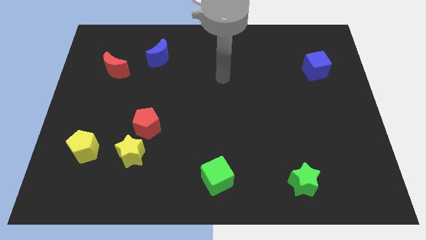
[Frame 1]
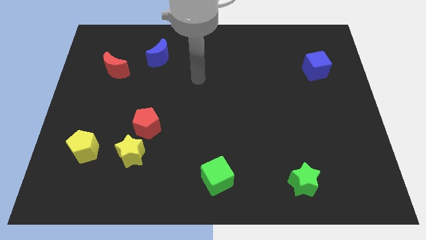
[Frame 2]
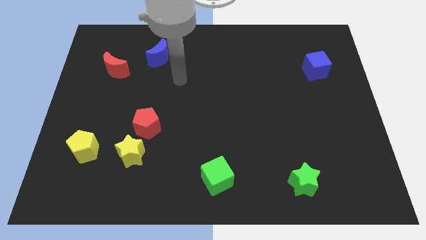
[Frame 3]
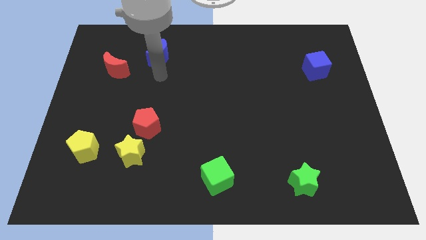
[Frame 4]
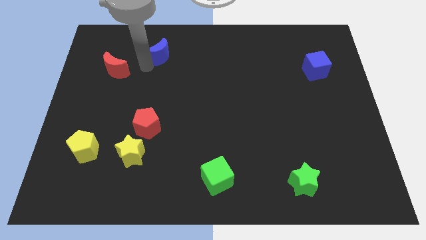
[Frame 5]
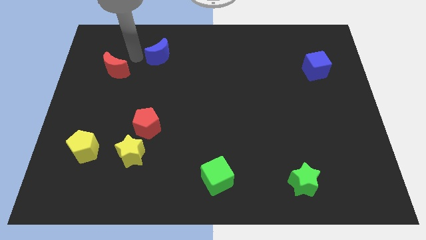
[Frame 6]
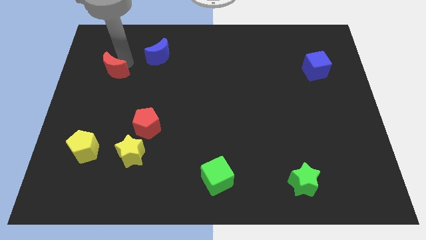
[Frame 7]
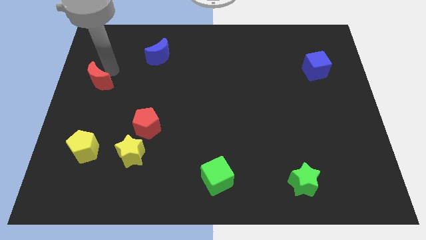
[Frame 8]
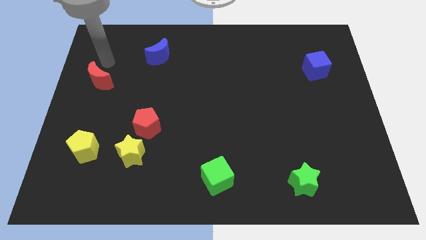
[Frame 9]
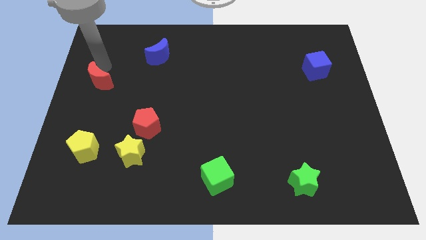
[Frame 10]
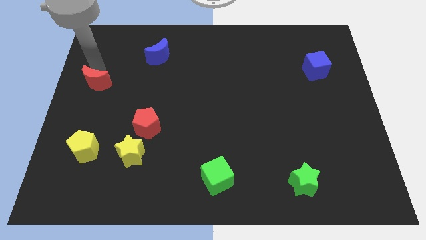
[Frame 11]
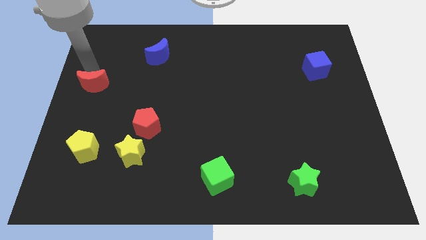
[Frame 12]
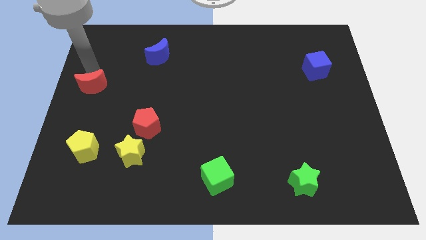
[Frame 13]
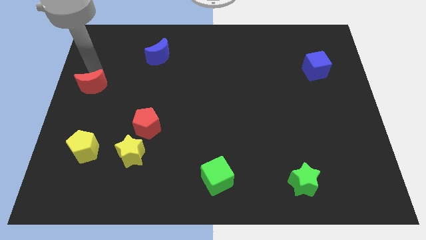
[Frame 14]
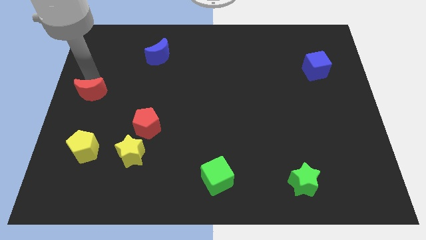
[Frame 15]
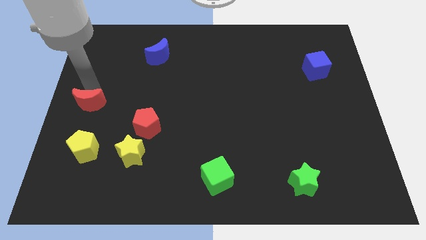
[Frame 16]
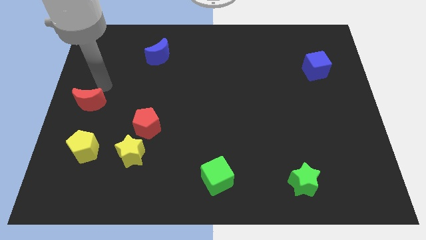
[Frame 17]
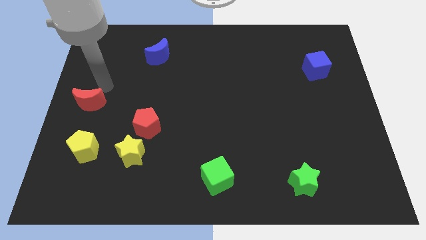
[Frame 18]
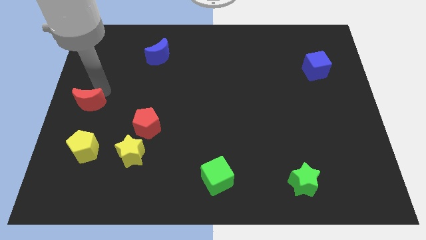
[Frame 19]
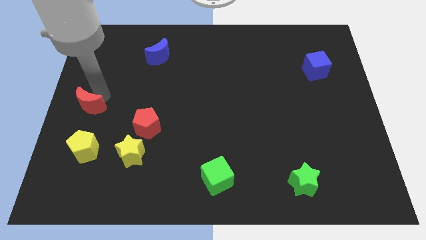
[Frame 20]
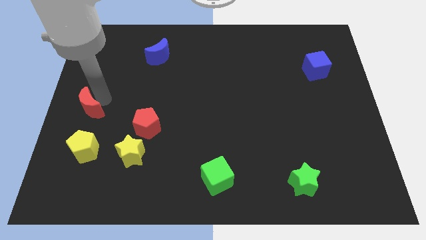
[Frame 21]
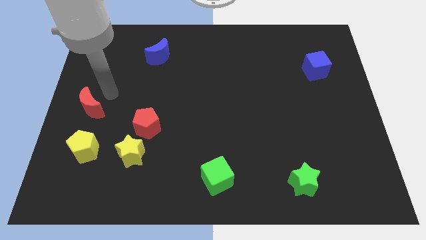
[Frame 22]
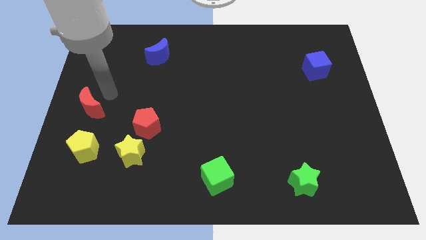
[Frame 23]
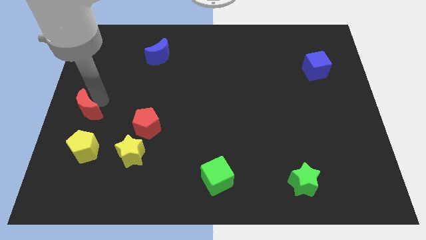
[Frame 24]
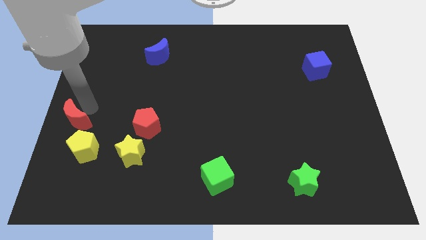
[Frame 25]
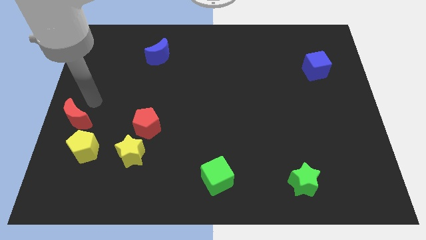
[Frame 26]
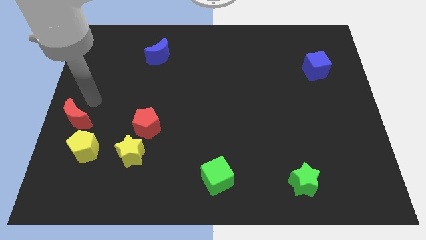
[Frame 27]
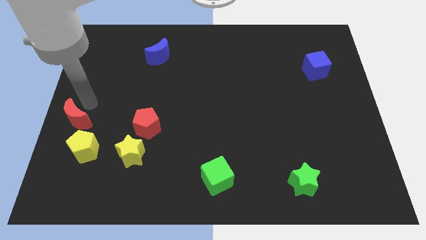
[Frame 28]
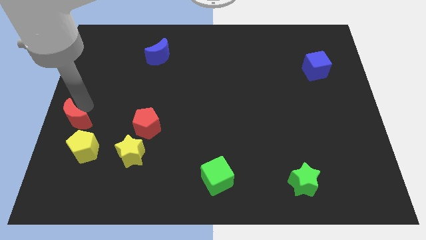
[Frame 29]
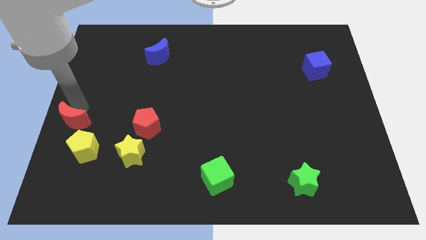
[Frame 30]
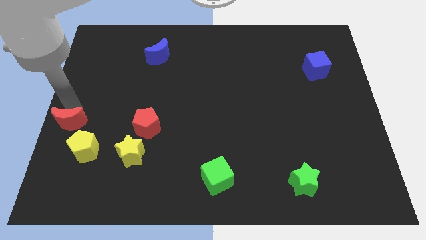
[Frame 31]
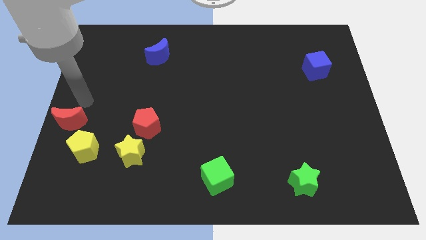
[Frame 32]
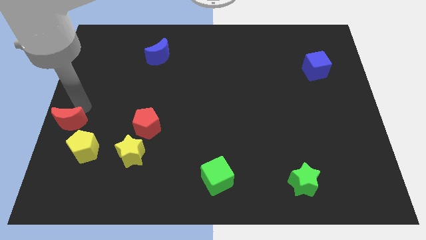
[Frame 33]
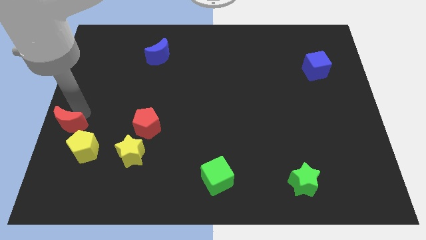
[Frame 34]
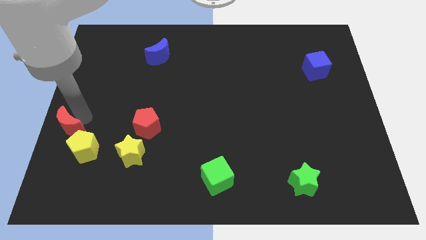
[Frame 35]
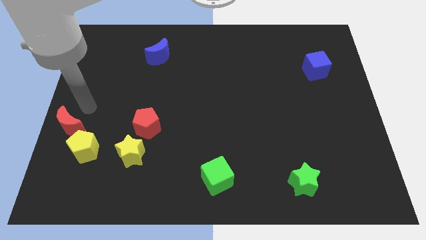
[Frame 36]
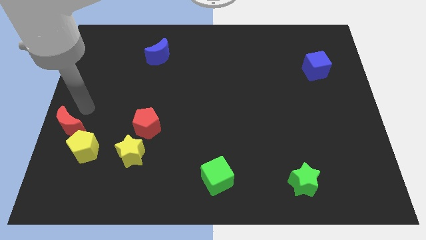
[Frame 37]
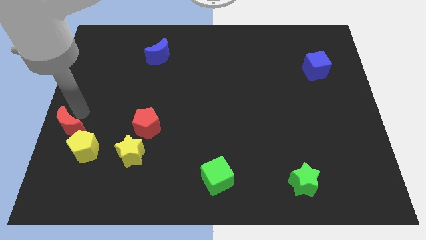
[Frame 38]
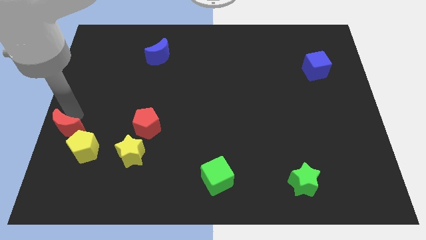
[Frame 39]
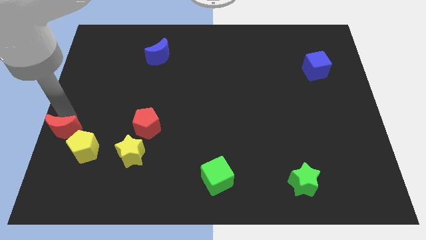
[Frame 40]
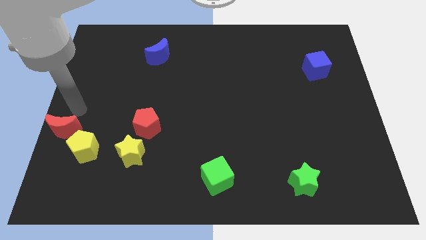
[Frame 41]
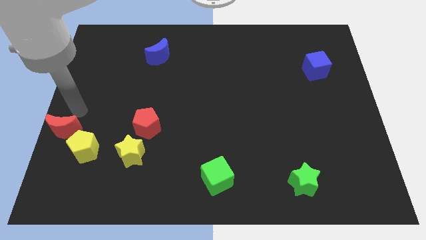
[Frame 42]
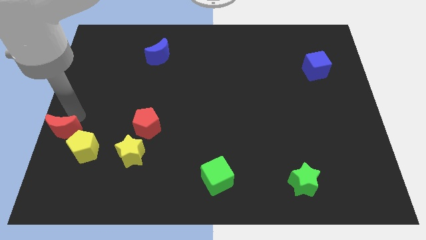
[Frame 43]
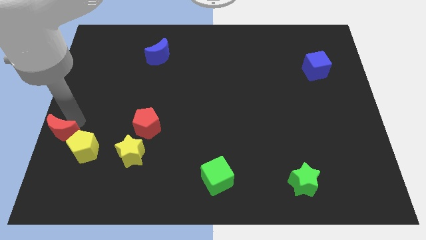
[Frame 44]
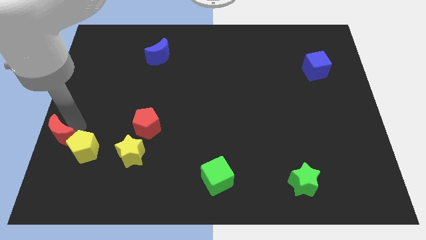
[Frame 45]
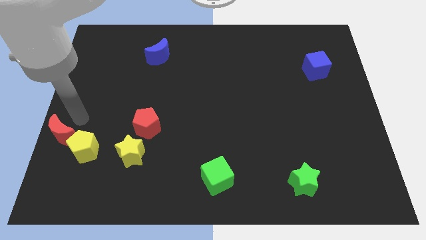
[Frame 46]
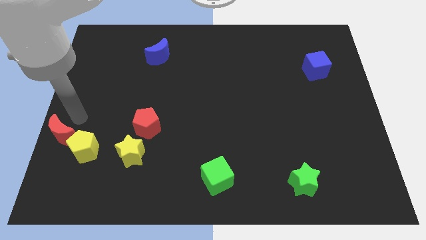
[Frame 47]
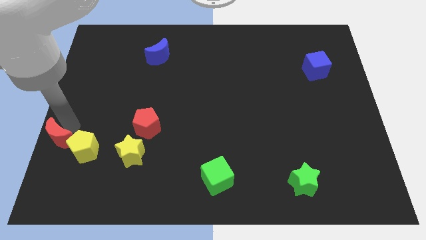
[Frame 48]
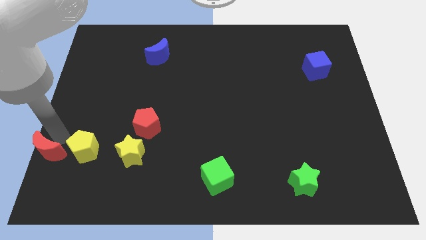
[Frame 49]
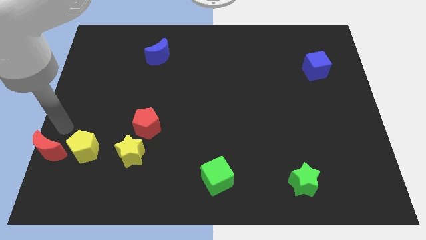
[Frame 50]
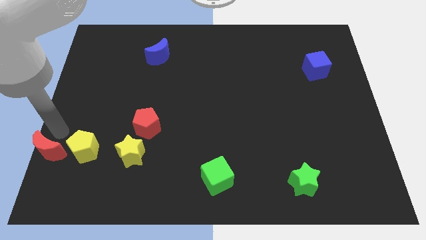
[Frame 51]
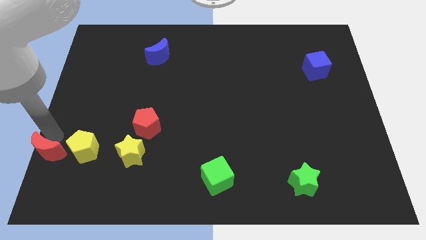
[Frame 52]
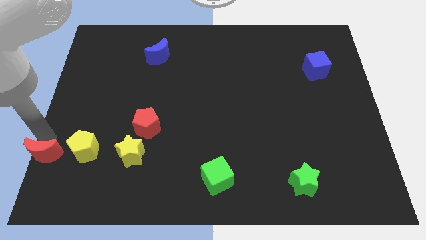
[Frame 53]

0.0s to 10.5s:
push the red moon to the lower left corner

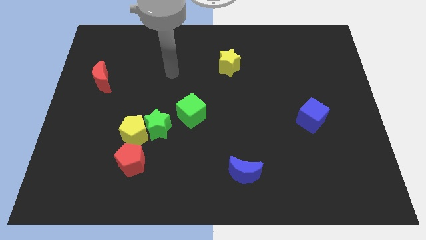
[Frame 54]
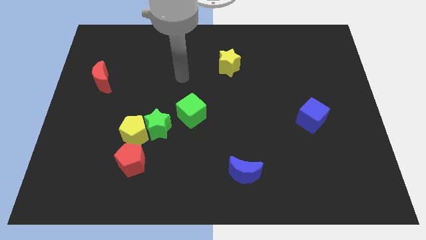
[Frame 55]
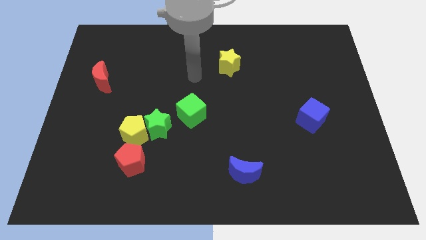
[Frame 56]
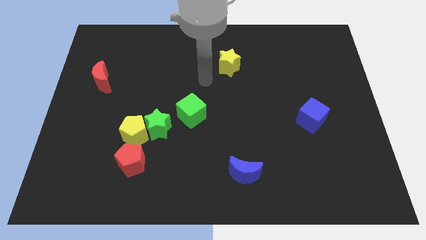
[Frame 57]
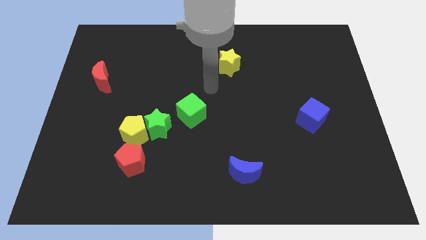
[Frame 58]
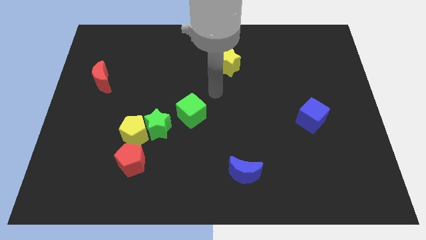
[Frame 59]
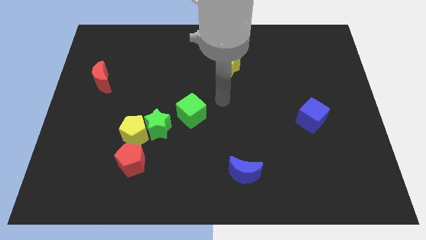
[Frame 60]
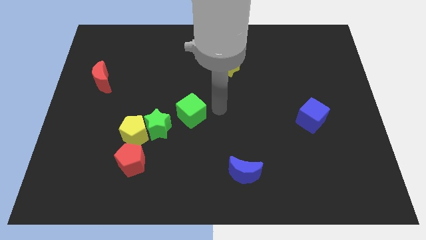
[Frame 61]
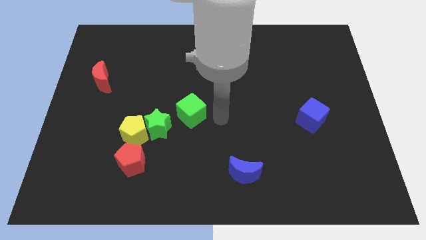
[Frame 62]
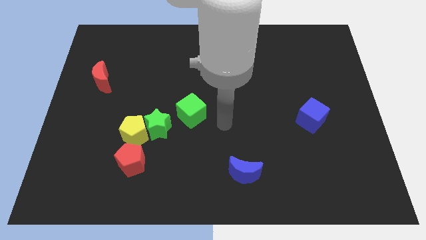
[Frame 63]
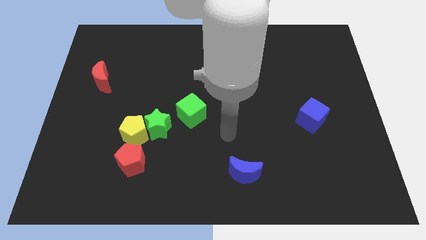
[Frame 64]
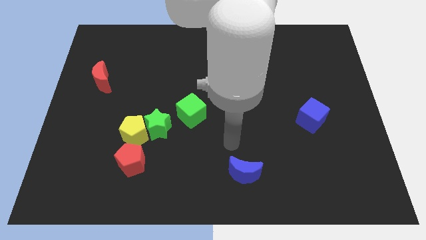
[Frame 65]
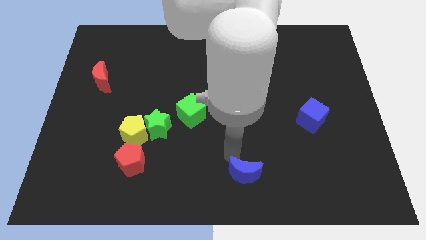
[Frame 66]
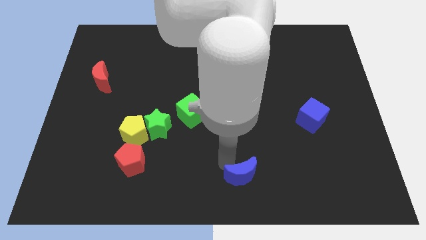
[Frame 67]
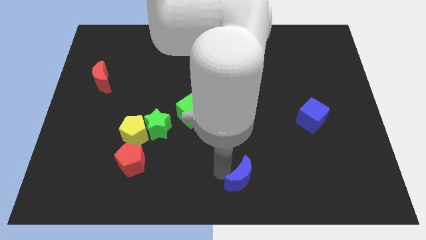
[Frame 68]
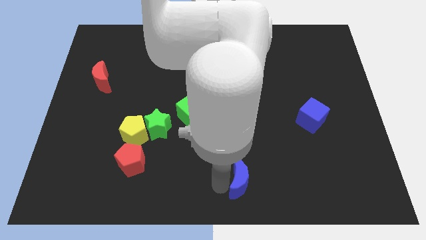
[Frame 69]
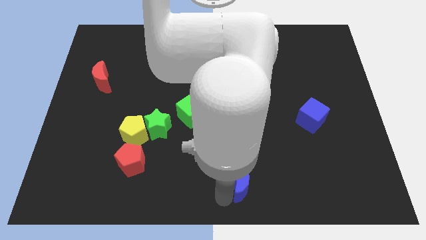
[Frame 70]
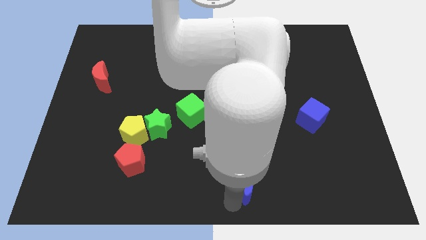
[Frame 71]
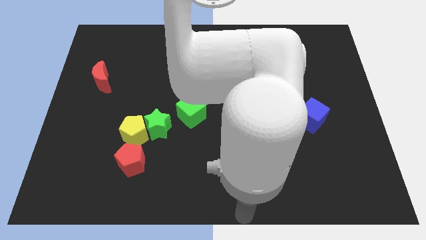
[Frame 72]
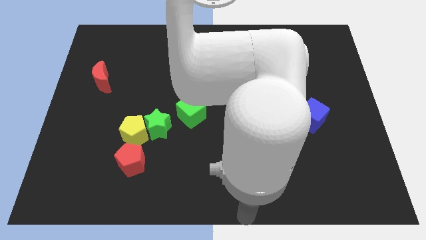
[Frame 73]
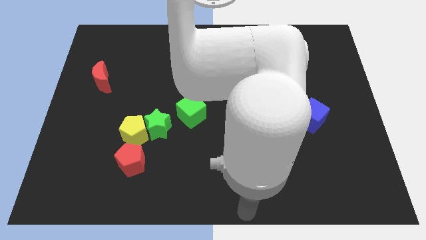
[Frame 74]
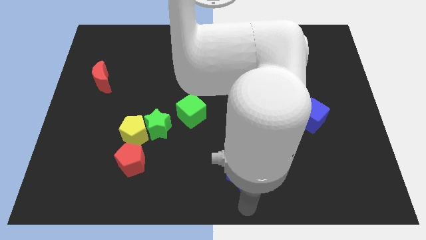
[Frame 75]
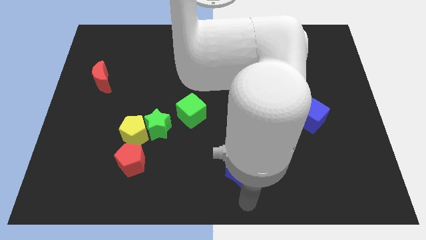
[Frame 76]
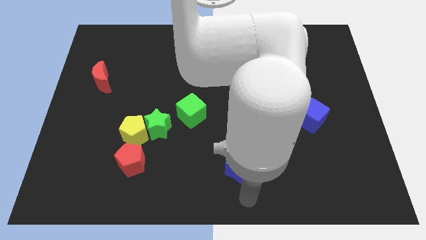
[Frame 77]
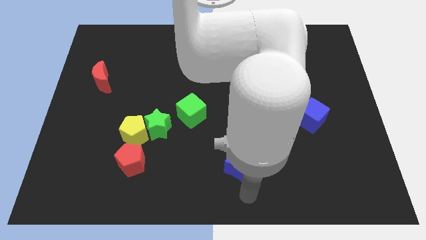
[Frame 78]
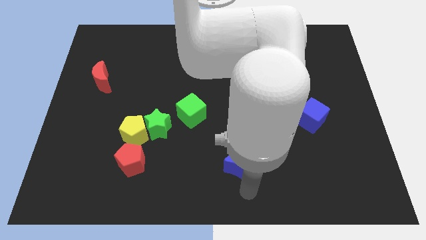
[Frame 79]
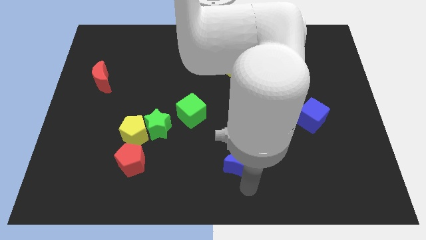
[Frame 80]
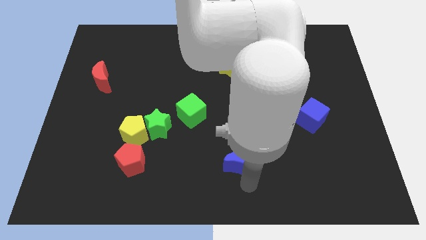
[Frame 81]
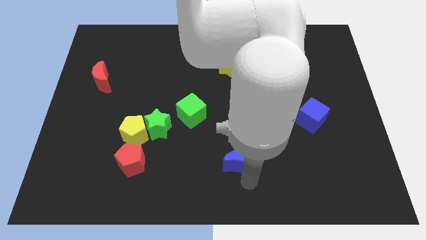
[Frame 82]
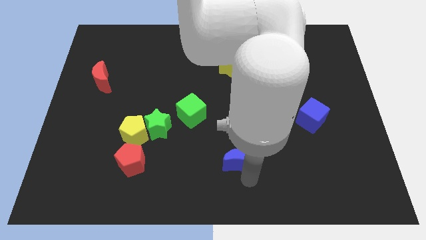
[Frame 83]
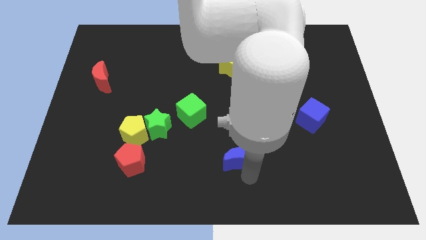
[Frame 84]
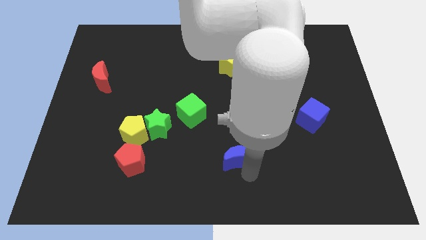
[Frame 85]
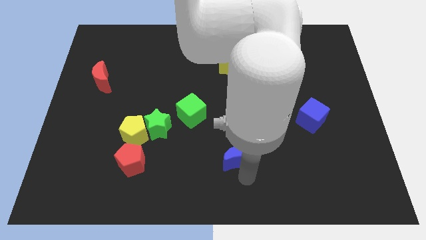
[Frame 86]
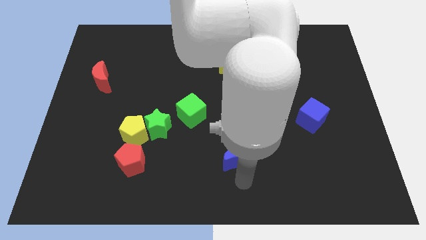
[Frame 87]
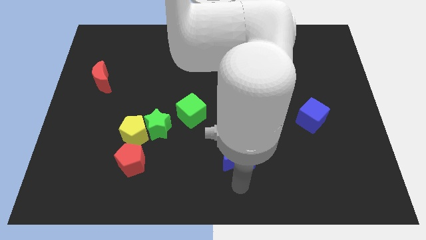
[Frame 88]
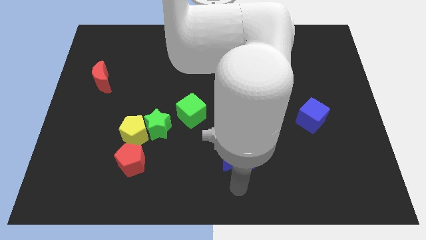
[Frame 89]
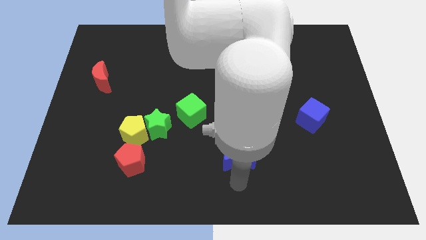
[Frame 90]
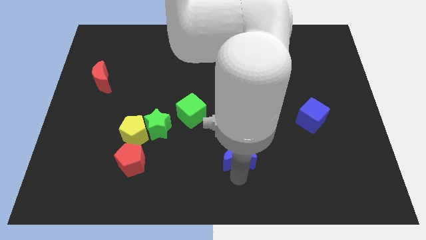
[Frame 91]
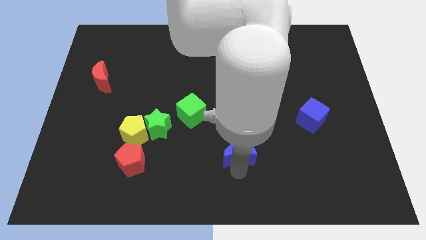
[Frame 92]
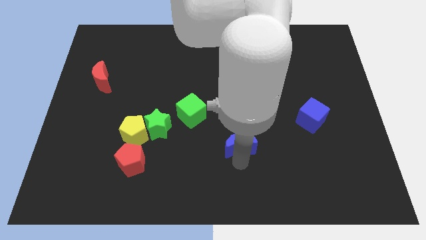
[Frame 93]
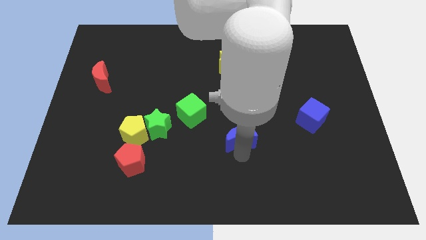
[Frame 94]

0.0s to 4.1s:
slide the blue moon to the middle of the board
